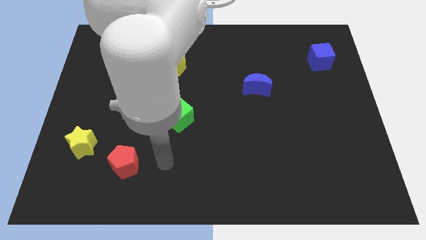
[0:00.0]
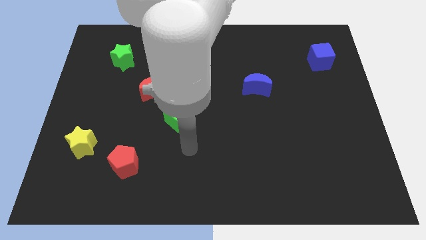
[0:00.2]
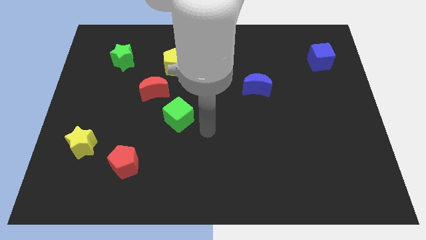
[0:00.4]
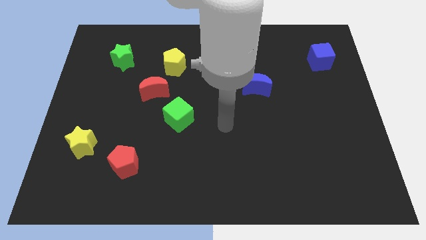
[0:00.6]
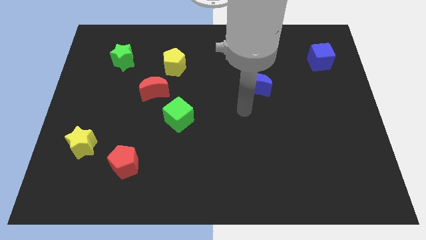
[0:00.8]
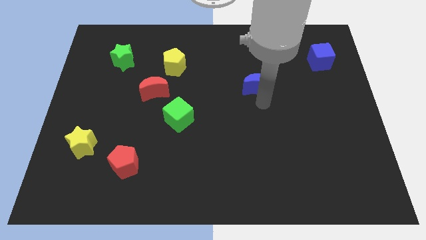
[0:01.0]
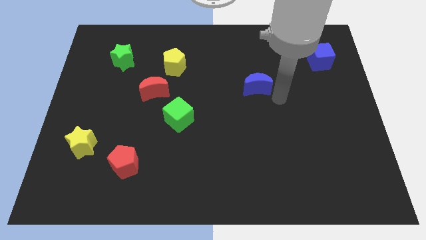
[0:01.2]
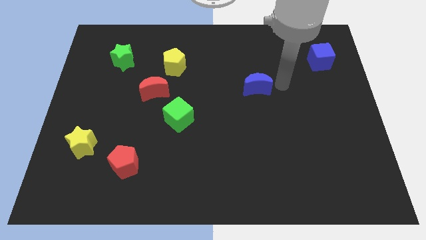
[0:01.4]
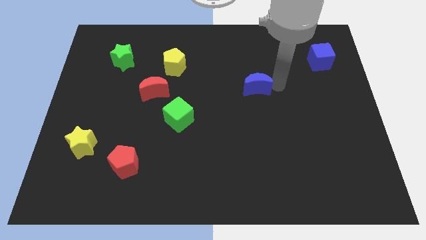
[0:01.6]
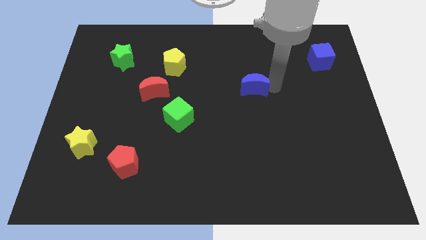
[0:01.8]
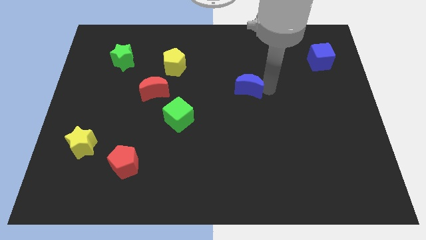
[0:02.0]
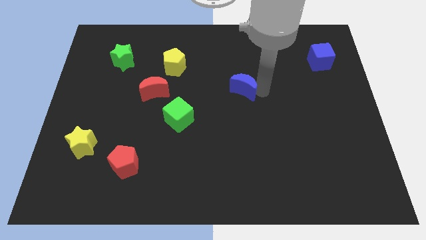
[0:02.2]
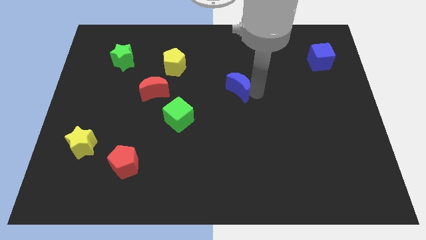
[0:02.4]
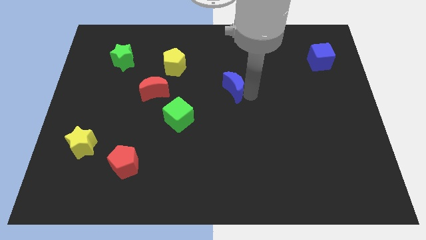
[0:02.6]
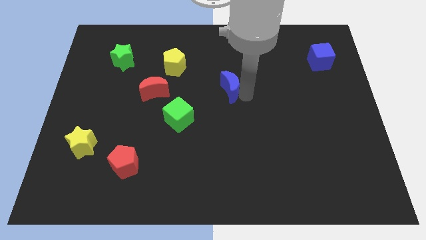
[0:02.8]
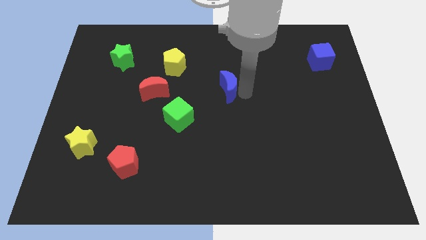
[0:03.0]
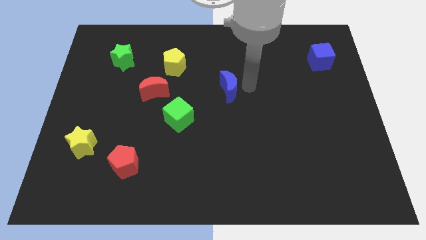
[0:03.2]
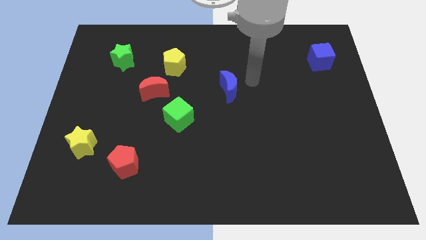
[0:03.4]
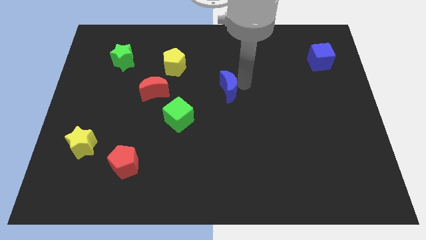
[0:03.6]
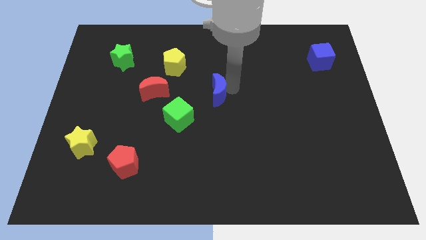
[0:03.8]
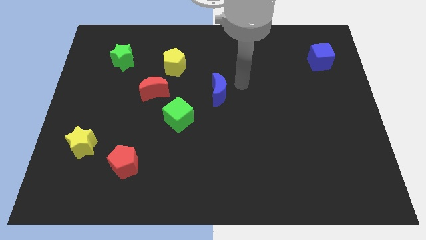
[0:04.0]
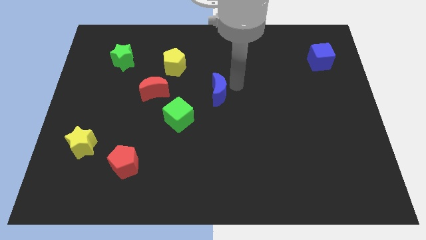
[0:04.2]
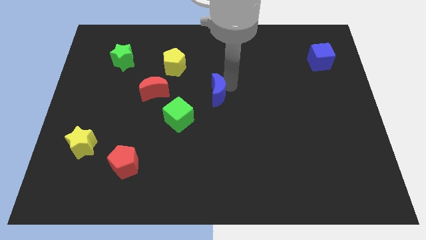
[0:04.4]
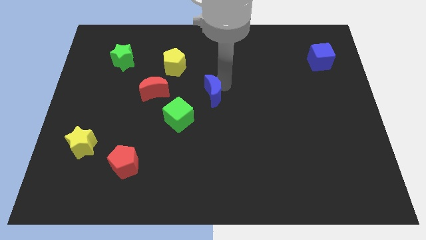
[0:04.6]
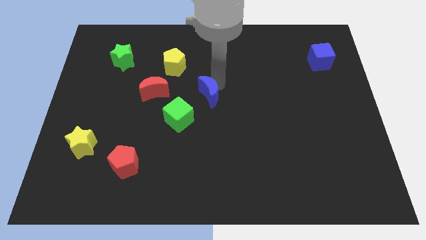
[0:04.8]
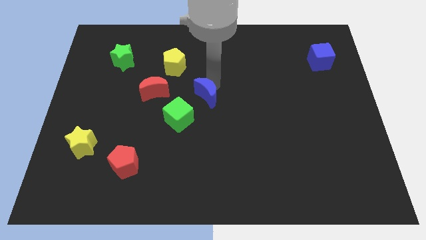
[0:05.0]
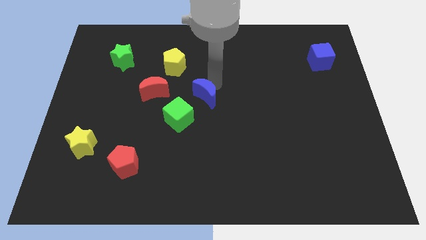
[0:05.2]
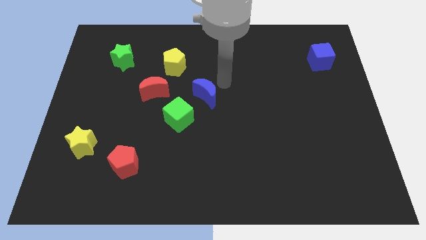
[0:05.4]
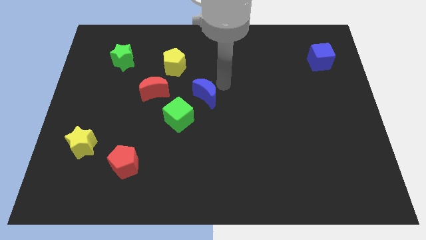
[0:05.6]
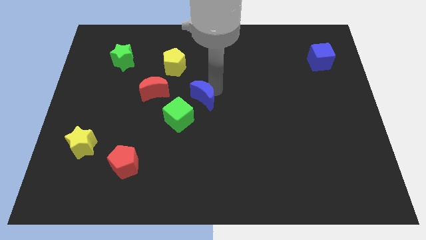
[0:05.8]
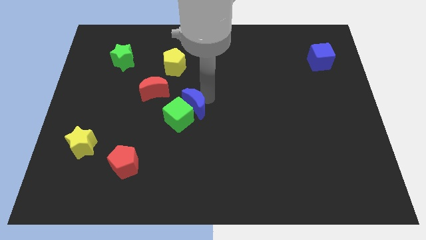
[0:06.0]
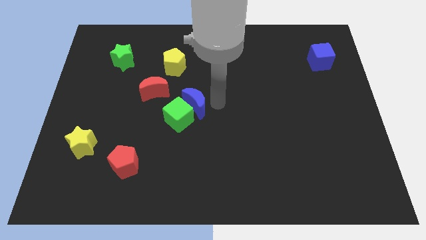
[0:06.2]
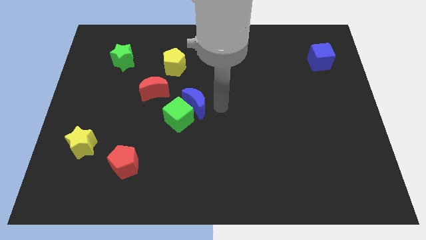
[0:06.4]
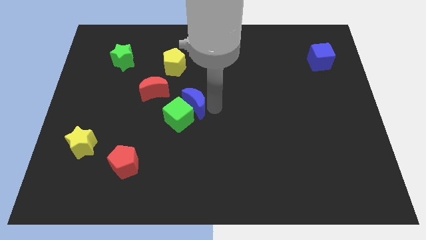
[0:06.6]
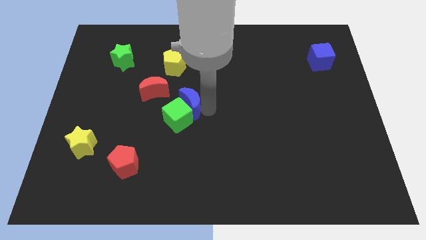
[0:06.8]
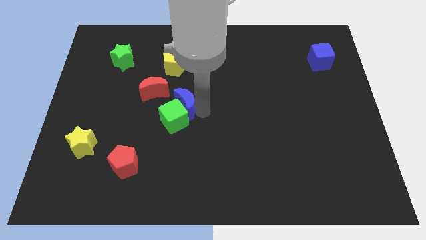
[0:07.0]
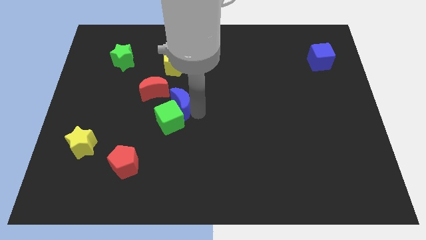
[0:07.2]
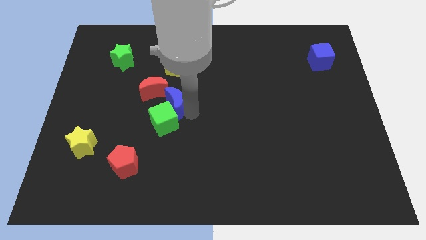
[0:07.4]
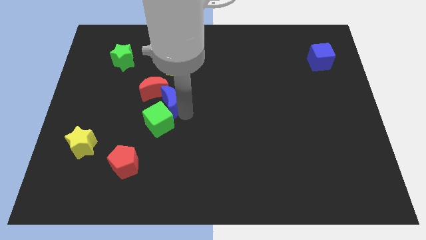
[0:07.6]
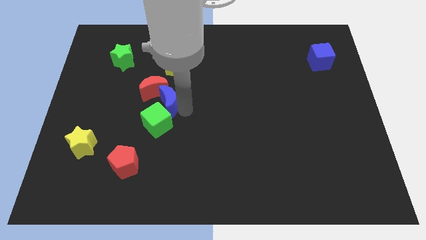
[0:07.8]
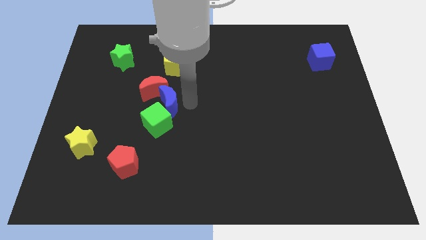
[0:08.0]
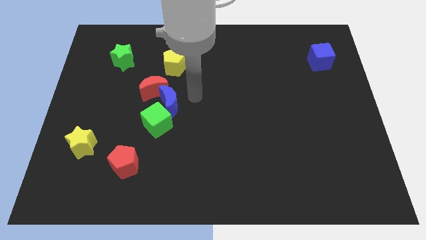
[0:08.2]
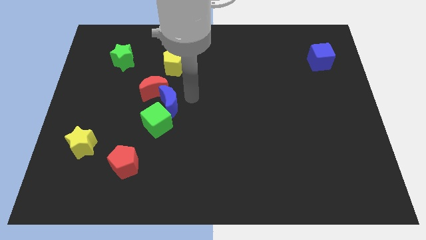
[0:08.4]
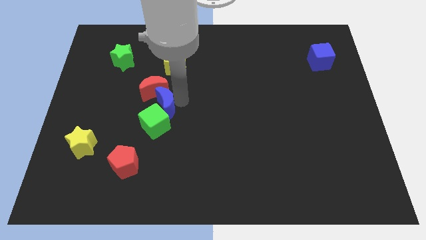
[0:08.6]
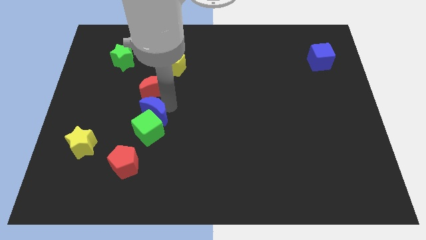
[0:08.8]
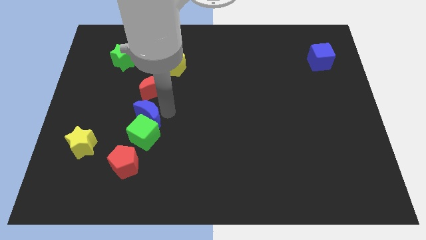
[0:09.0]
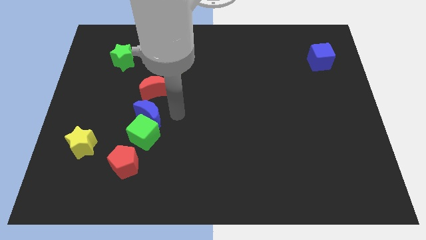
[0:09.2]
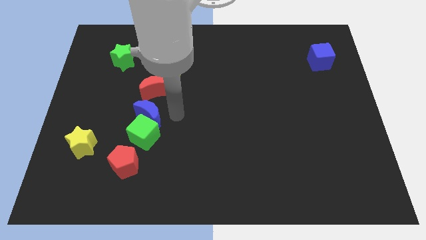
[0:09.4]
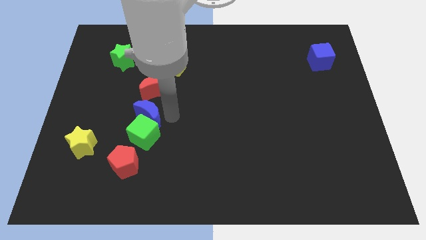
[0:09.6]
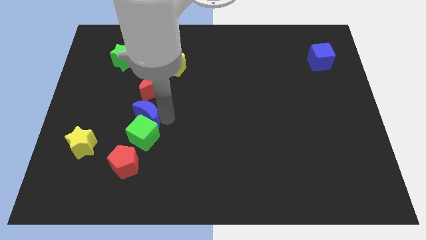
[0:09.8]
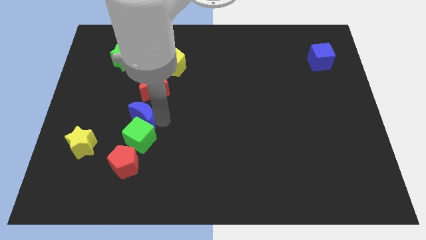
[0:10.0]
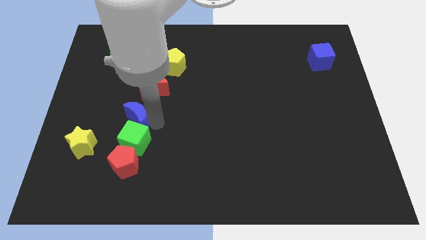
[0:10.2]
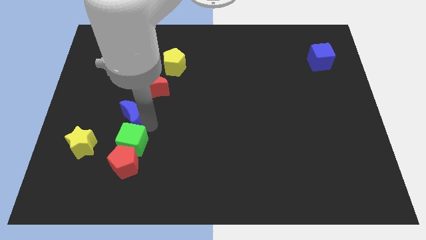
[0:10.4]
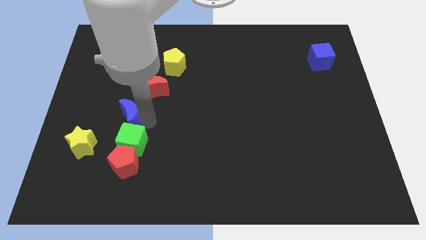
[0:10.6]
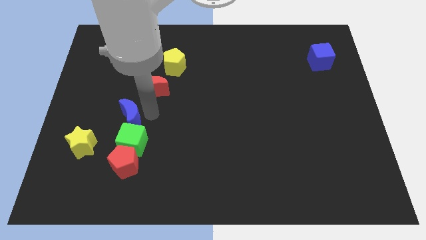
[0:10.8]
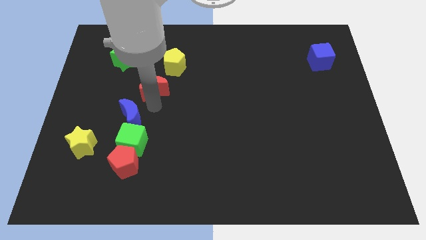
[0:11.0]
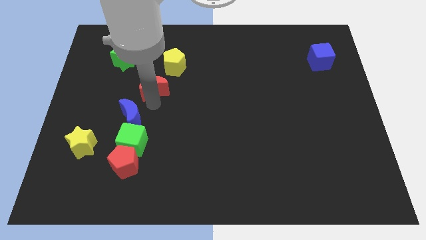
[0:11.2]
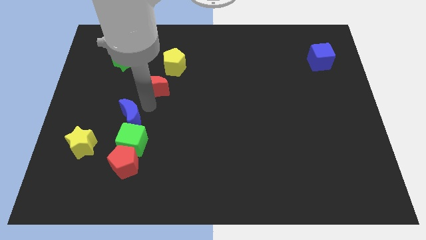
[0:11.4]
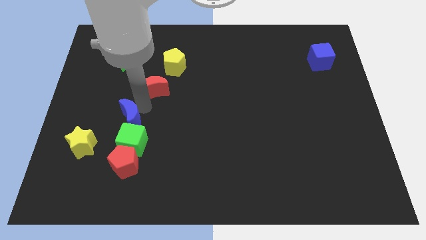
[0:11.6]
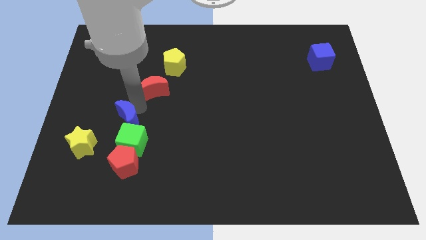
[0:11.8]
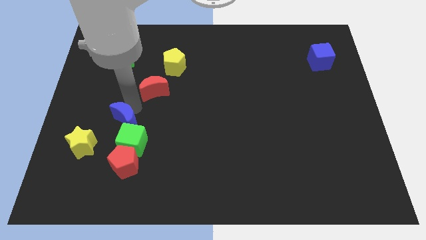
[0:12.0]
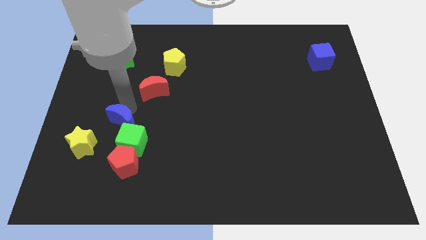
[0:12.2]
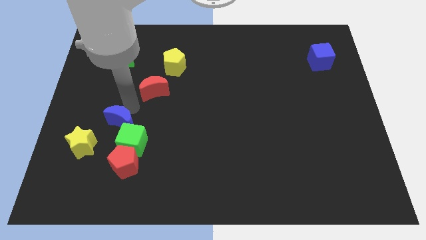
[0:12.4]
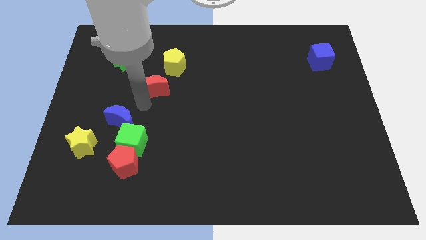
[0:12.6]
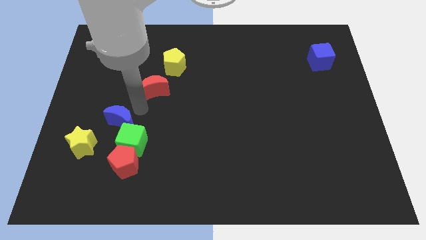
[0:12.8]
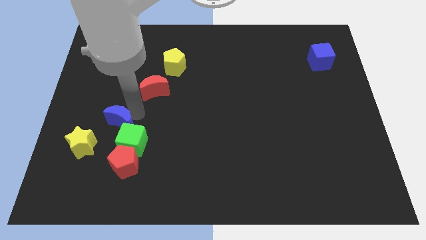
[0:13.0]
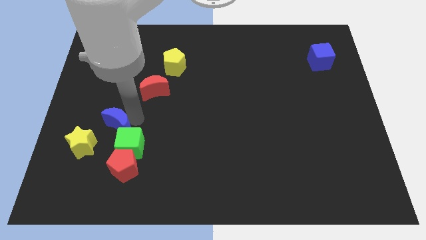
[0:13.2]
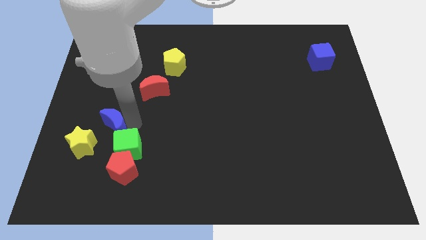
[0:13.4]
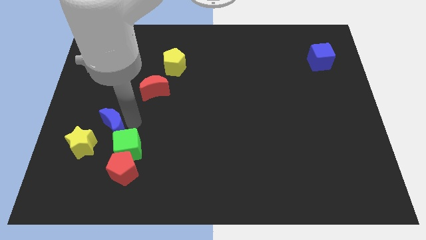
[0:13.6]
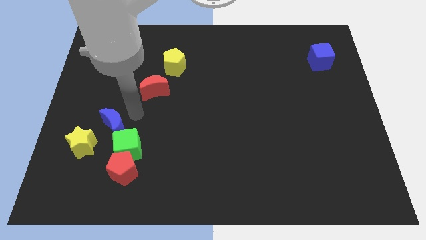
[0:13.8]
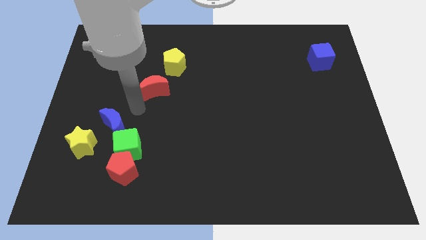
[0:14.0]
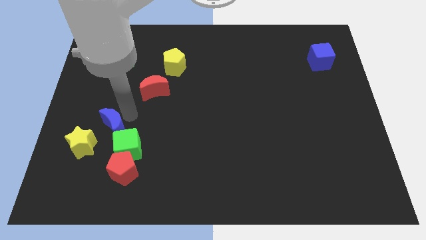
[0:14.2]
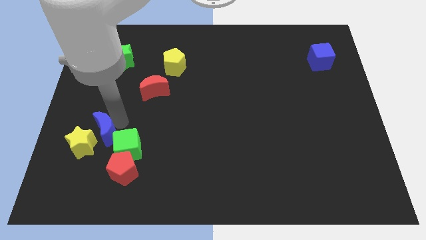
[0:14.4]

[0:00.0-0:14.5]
put the blue moon next to the yellow star
